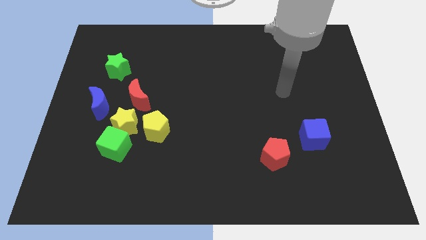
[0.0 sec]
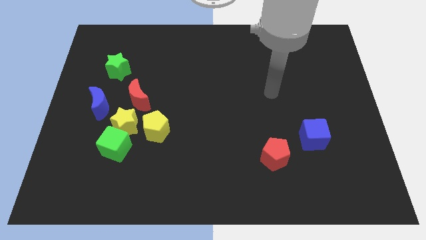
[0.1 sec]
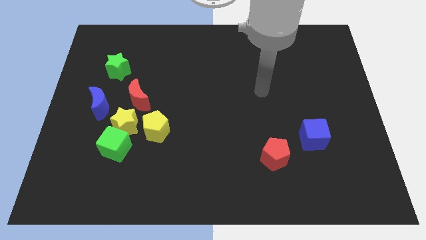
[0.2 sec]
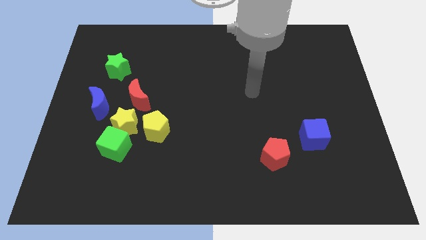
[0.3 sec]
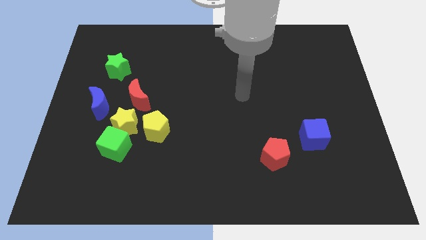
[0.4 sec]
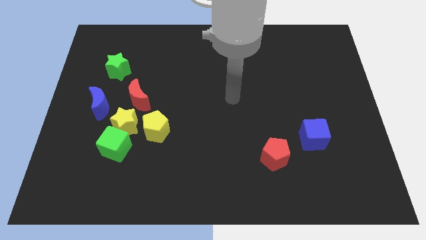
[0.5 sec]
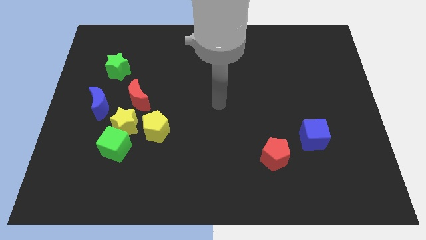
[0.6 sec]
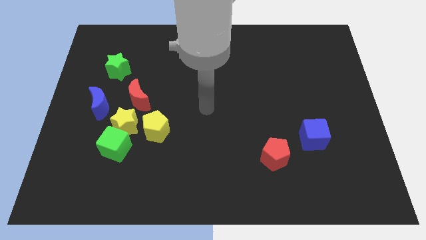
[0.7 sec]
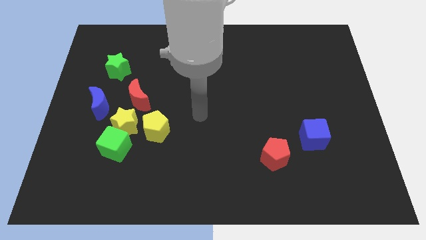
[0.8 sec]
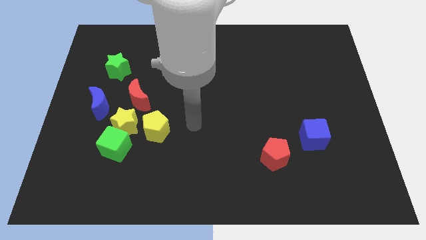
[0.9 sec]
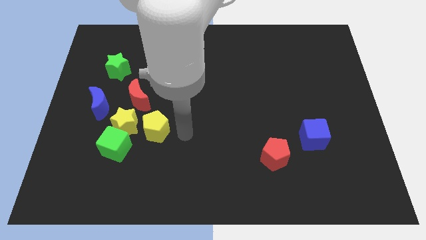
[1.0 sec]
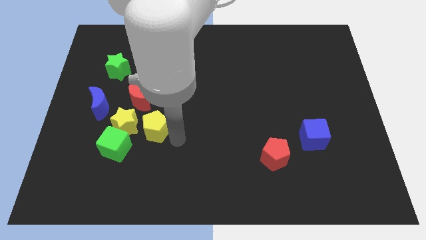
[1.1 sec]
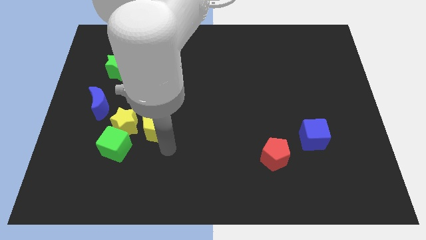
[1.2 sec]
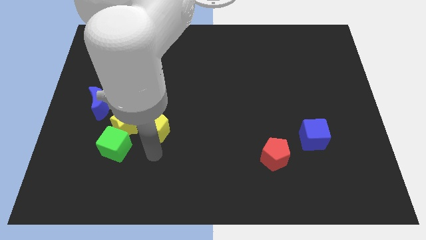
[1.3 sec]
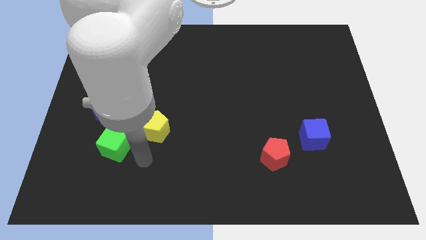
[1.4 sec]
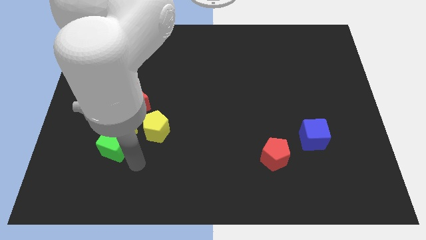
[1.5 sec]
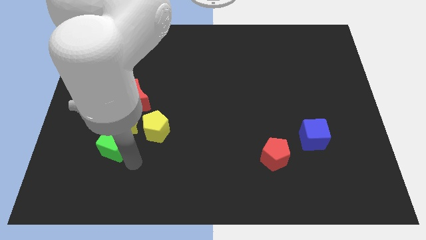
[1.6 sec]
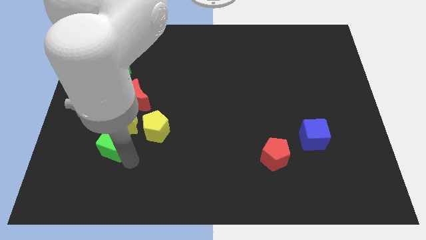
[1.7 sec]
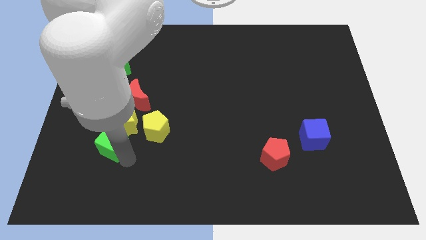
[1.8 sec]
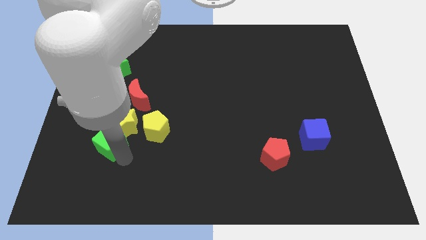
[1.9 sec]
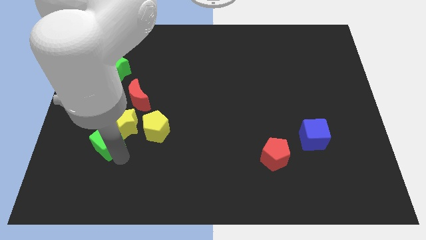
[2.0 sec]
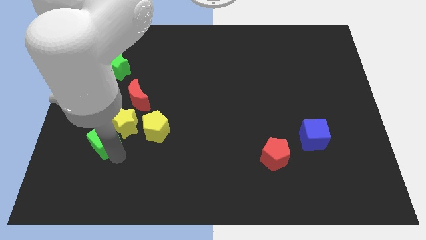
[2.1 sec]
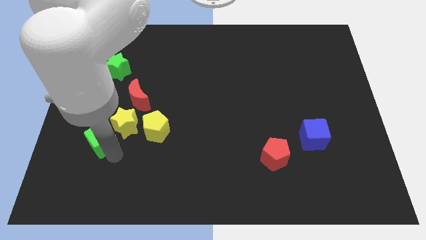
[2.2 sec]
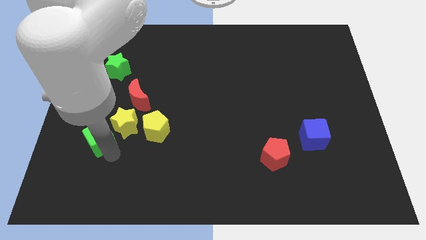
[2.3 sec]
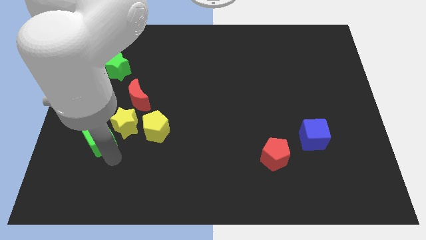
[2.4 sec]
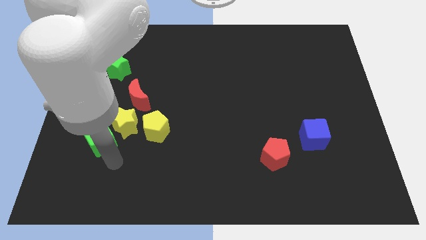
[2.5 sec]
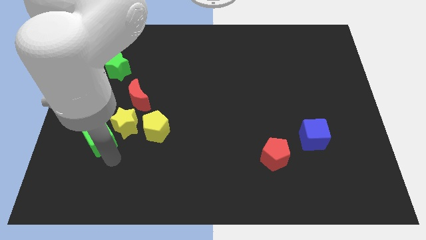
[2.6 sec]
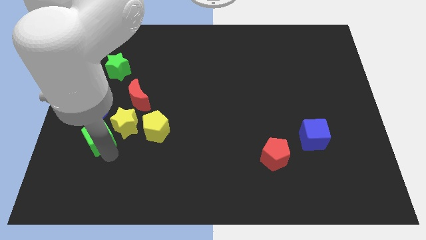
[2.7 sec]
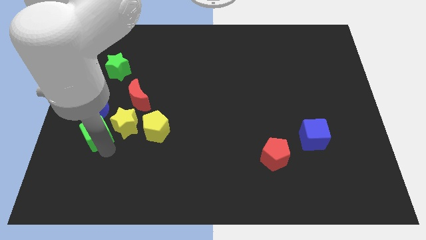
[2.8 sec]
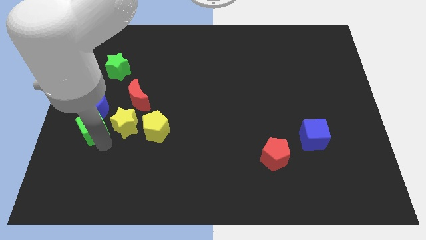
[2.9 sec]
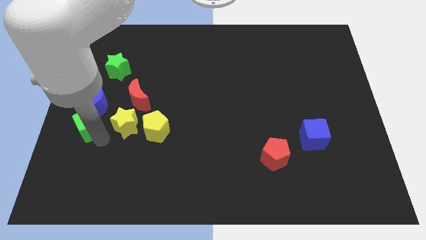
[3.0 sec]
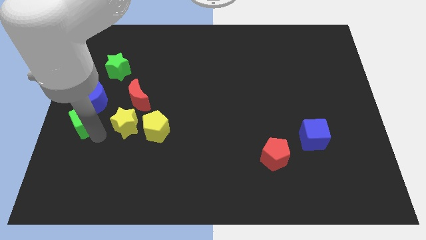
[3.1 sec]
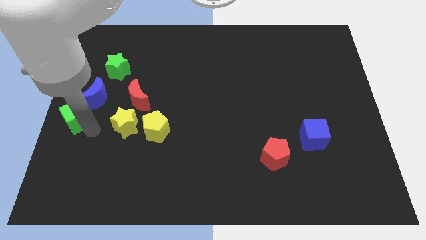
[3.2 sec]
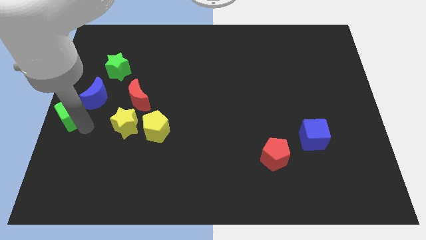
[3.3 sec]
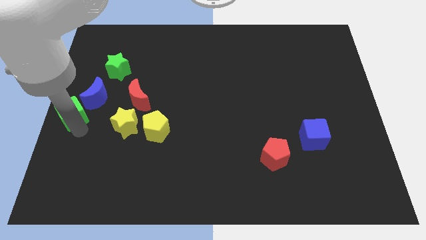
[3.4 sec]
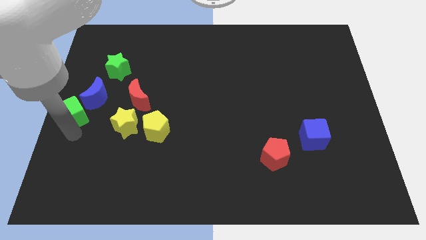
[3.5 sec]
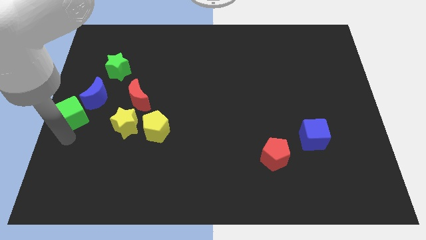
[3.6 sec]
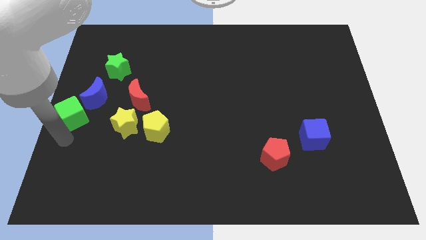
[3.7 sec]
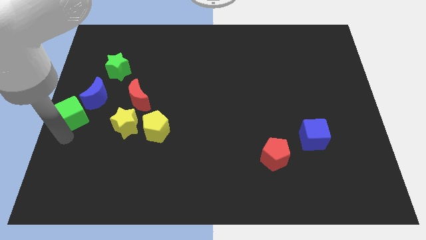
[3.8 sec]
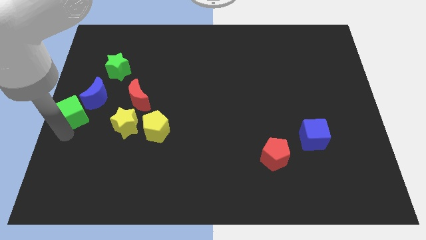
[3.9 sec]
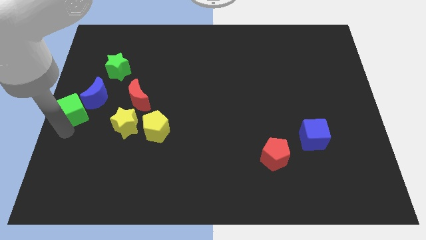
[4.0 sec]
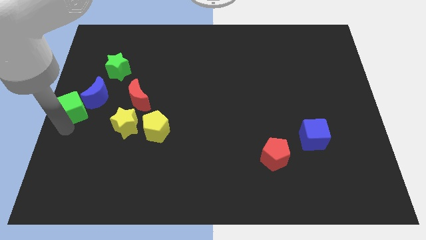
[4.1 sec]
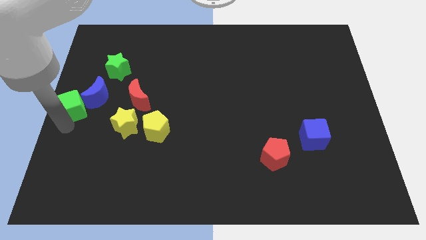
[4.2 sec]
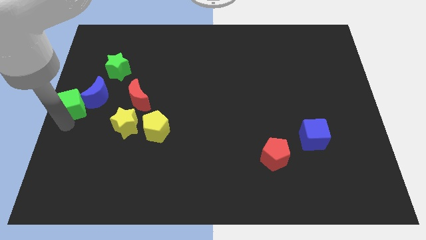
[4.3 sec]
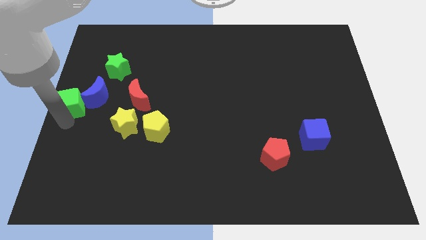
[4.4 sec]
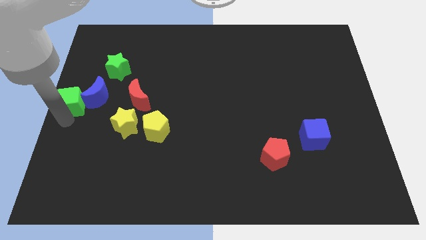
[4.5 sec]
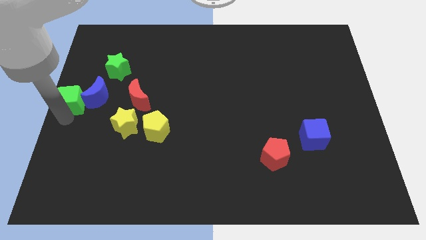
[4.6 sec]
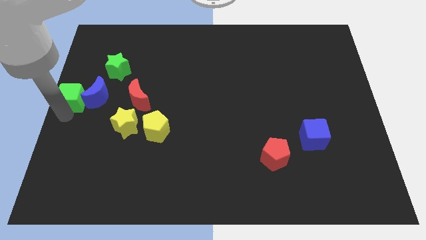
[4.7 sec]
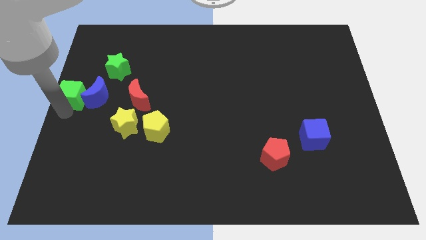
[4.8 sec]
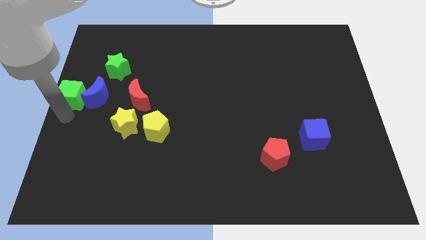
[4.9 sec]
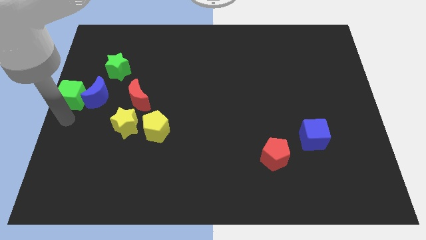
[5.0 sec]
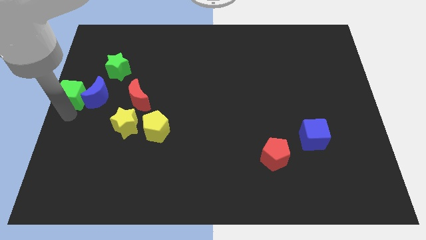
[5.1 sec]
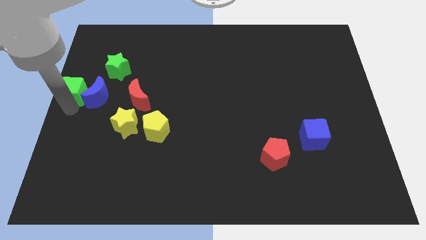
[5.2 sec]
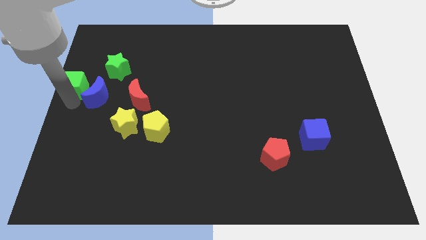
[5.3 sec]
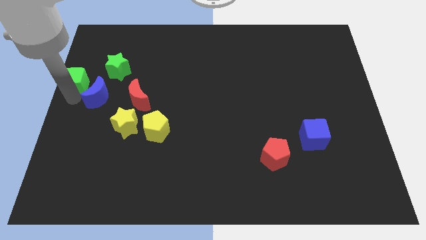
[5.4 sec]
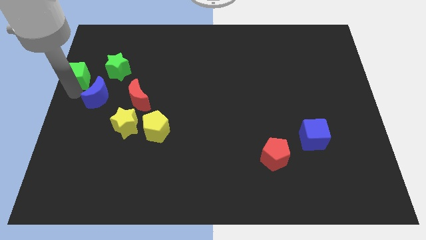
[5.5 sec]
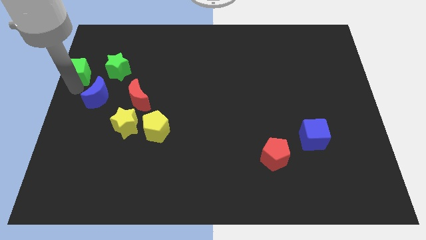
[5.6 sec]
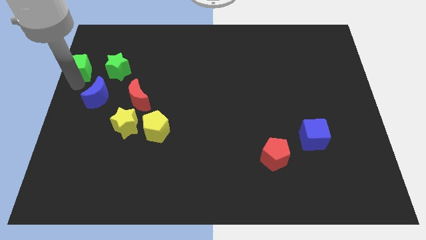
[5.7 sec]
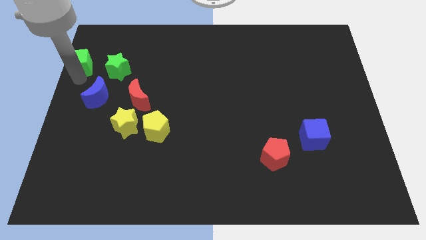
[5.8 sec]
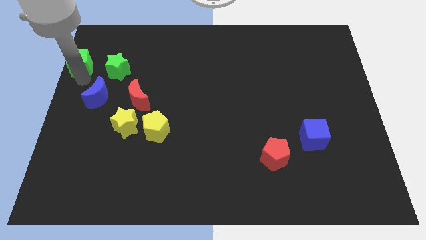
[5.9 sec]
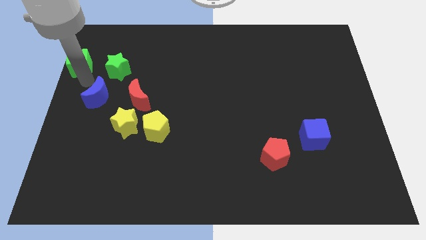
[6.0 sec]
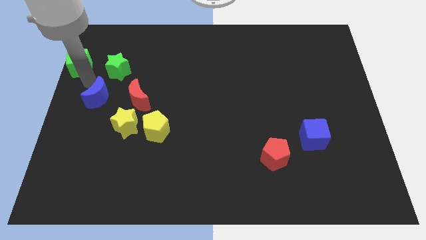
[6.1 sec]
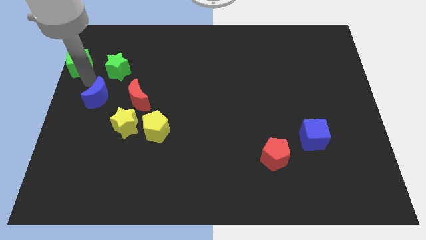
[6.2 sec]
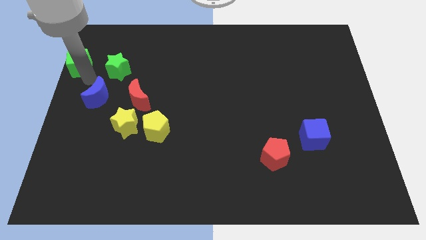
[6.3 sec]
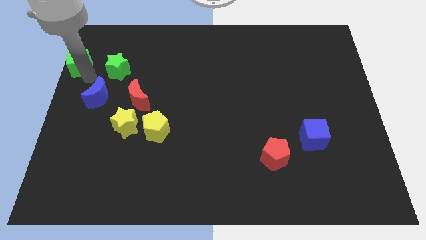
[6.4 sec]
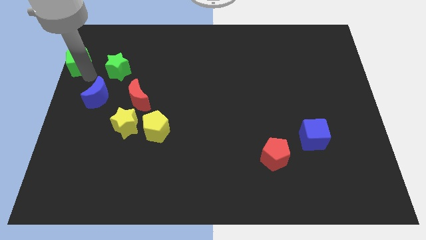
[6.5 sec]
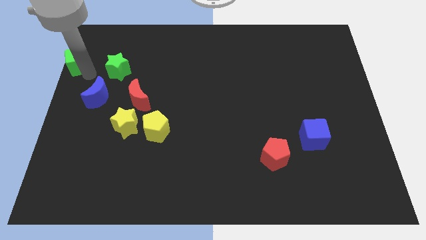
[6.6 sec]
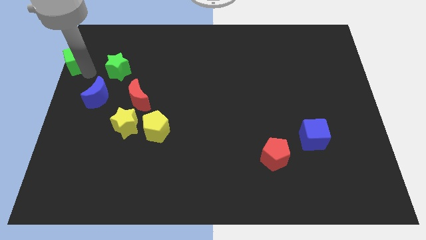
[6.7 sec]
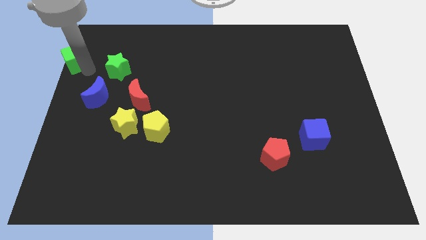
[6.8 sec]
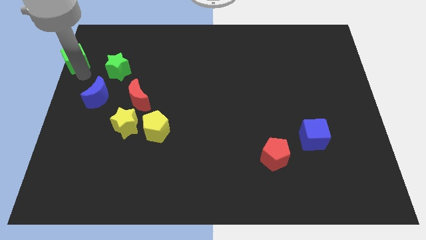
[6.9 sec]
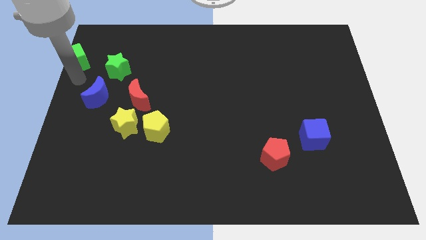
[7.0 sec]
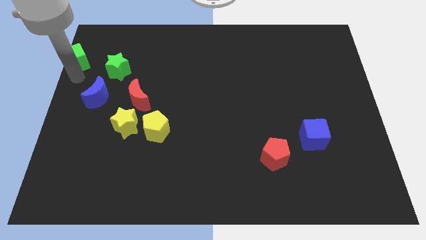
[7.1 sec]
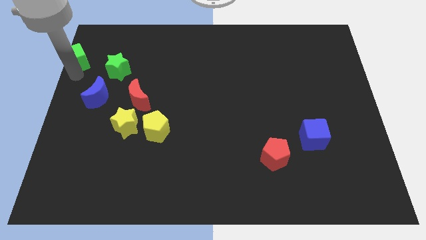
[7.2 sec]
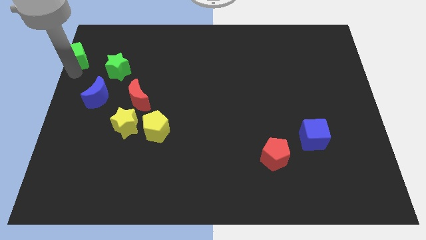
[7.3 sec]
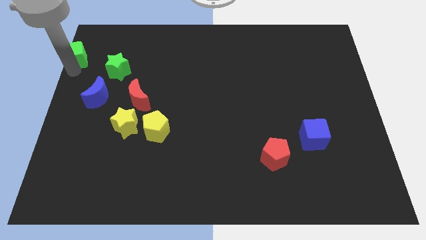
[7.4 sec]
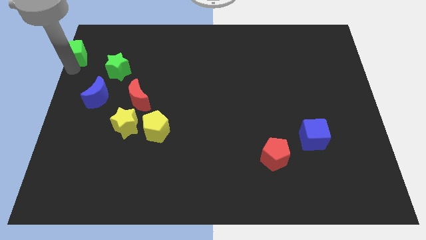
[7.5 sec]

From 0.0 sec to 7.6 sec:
push the green cube to the upper left corner
